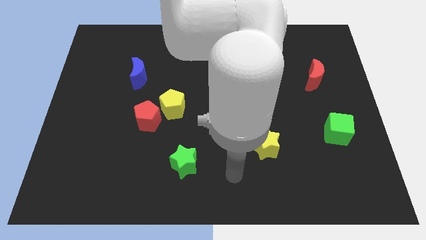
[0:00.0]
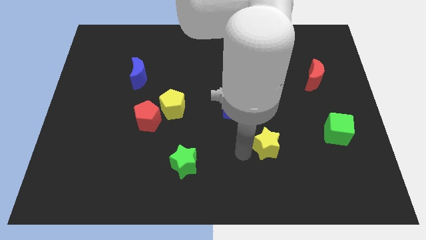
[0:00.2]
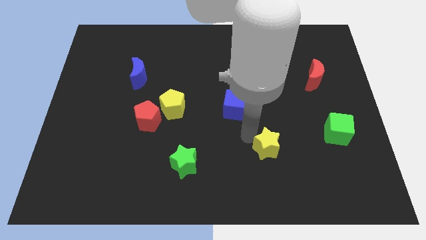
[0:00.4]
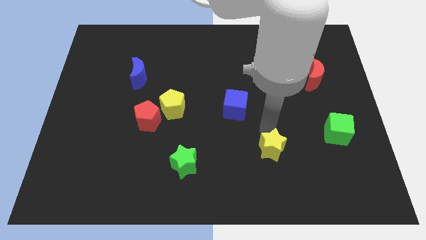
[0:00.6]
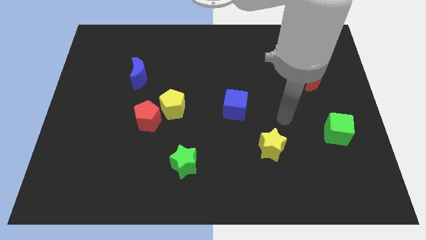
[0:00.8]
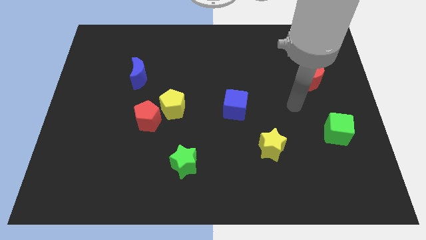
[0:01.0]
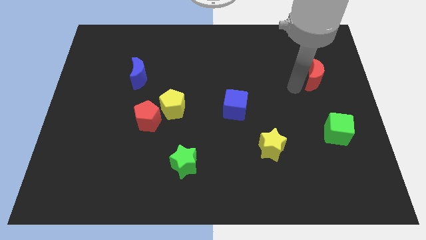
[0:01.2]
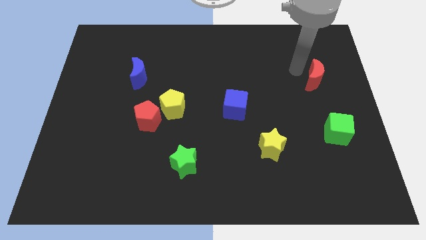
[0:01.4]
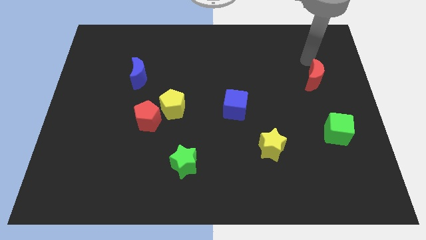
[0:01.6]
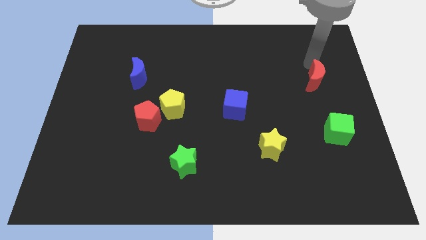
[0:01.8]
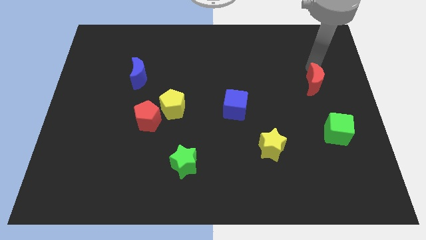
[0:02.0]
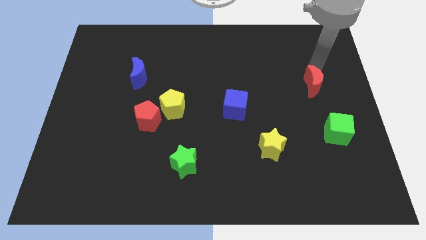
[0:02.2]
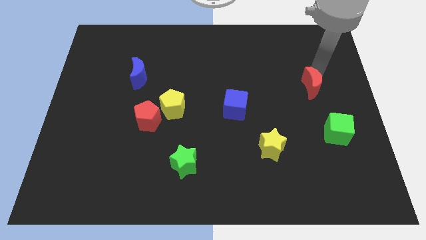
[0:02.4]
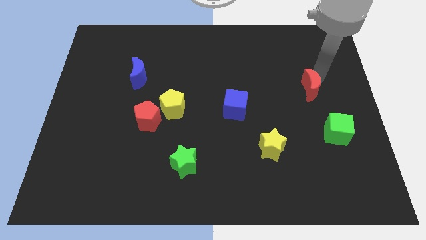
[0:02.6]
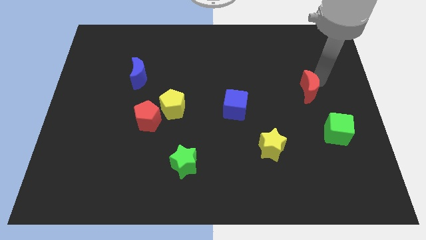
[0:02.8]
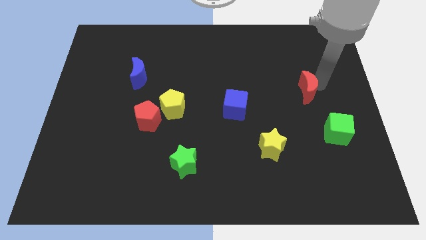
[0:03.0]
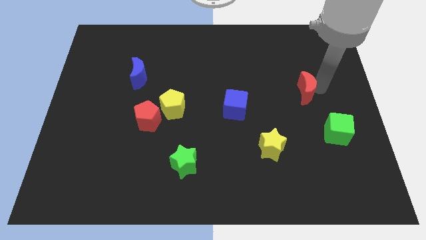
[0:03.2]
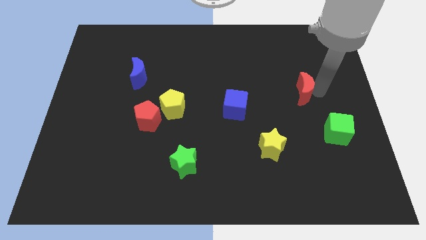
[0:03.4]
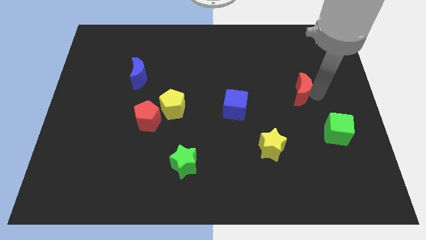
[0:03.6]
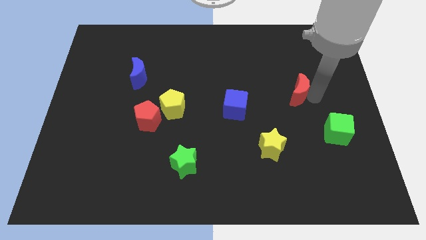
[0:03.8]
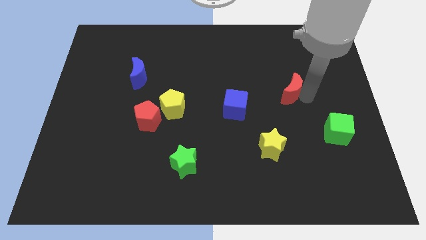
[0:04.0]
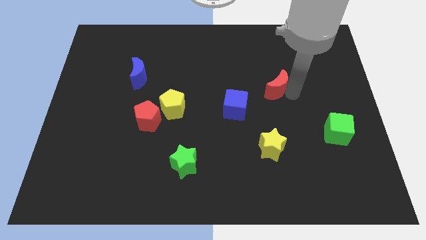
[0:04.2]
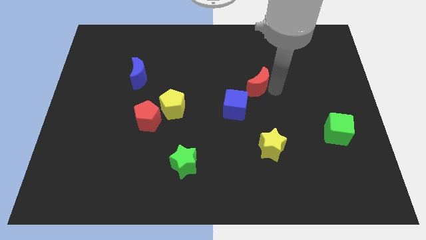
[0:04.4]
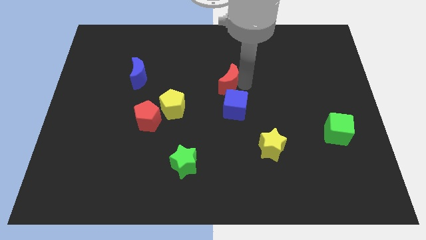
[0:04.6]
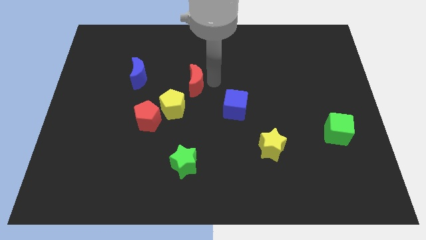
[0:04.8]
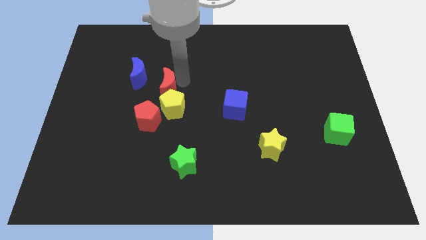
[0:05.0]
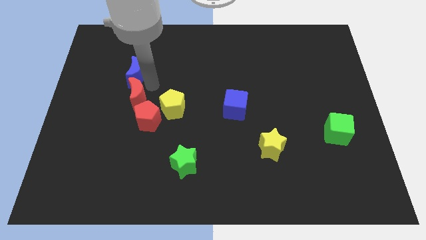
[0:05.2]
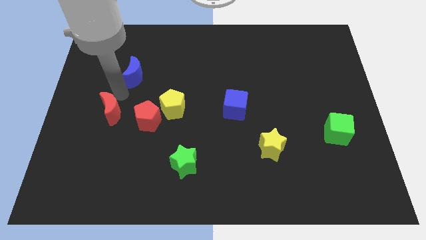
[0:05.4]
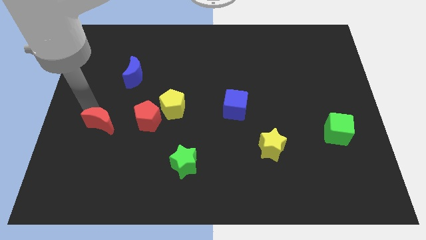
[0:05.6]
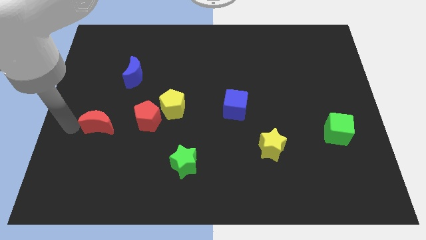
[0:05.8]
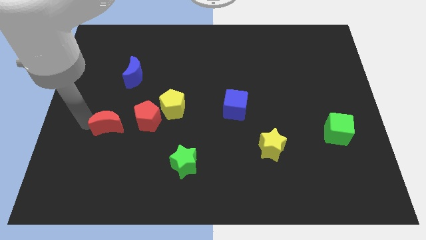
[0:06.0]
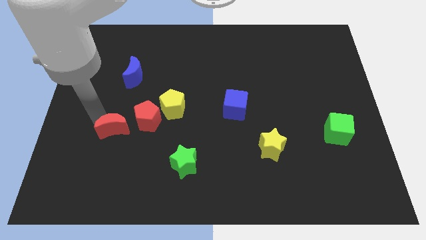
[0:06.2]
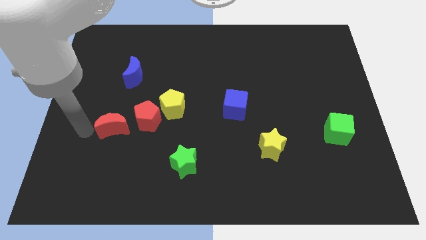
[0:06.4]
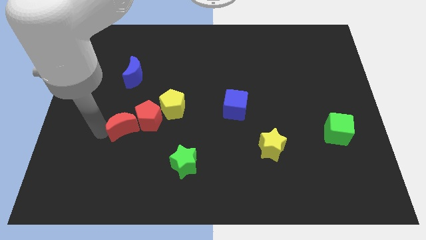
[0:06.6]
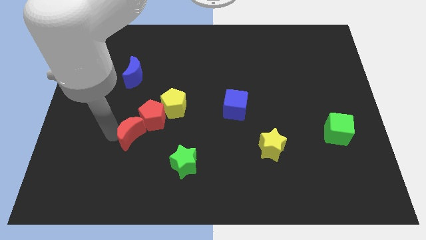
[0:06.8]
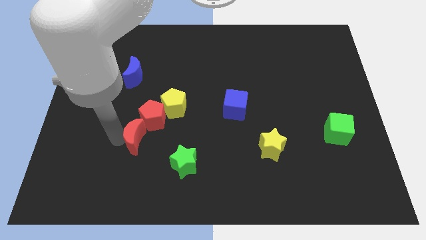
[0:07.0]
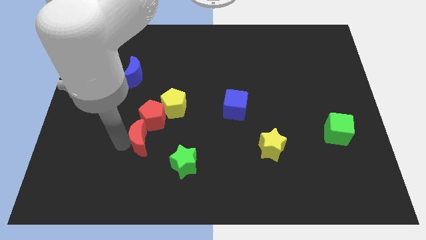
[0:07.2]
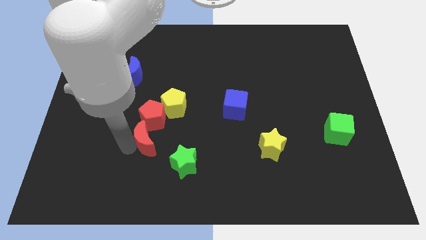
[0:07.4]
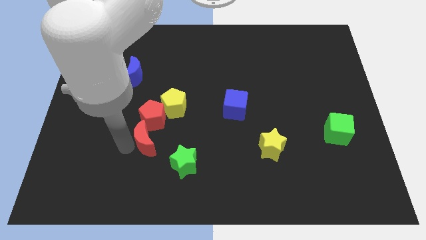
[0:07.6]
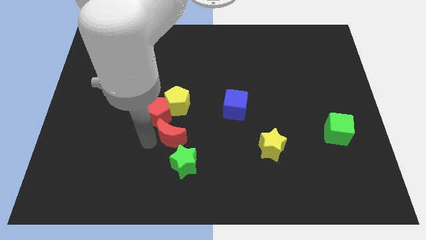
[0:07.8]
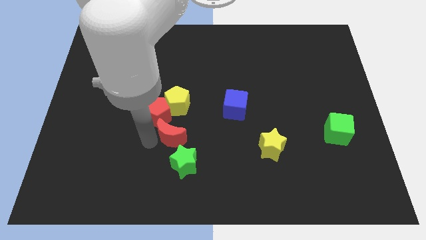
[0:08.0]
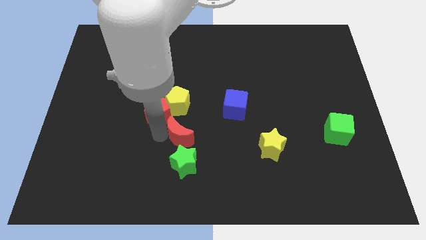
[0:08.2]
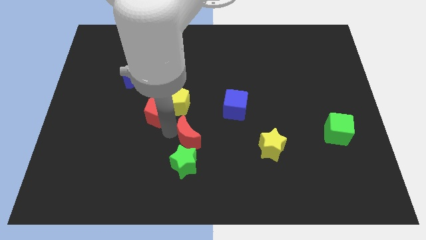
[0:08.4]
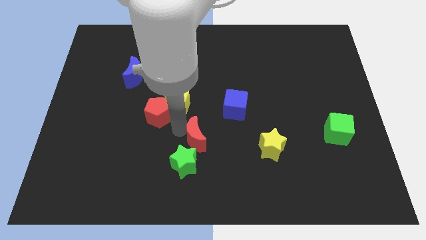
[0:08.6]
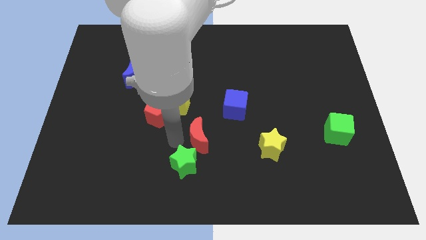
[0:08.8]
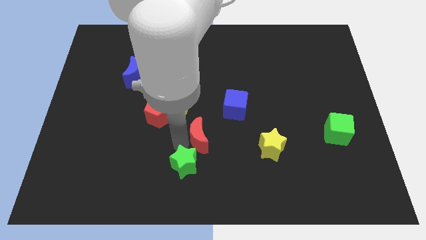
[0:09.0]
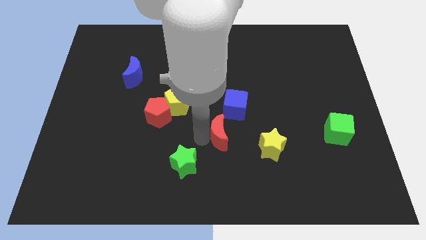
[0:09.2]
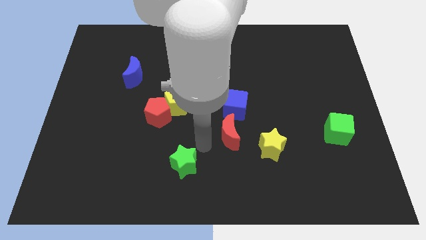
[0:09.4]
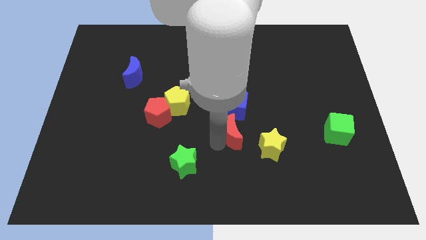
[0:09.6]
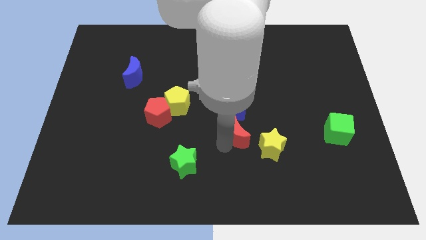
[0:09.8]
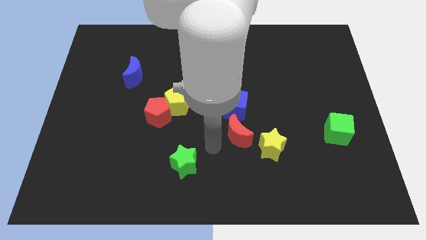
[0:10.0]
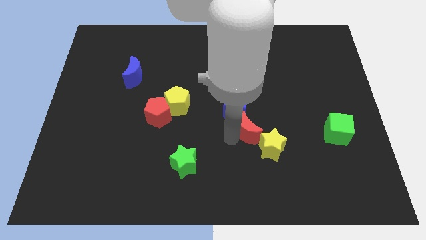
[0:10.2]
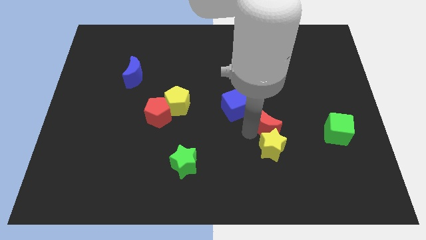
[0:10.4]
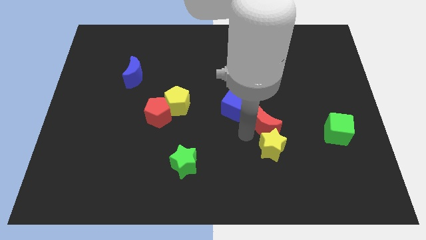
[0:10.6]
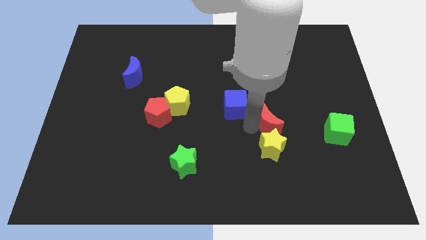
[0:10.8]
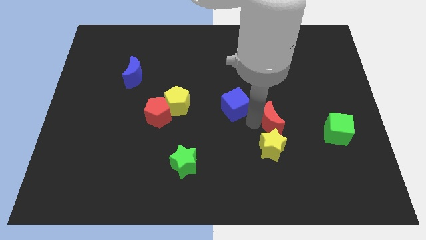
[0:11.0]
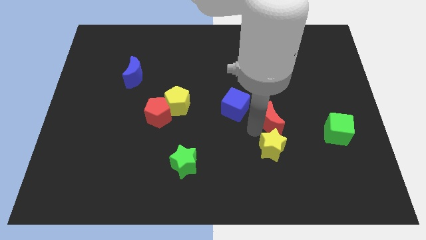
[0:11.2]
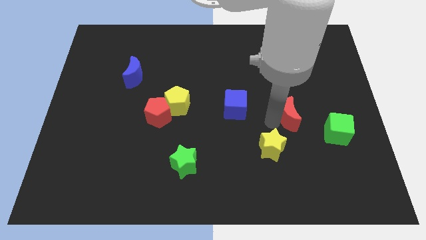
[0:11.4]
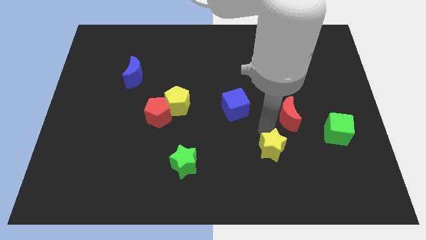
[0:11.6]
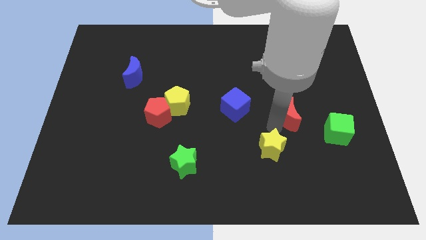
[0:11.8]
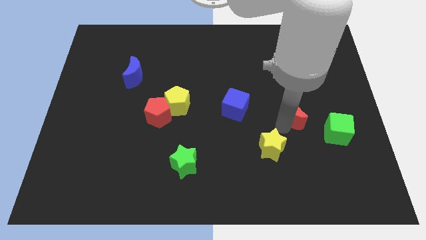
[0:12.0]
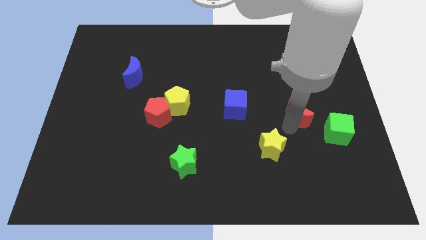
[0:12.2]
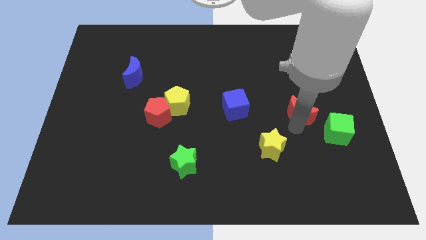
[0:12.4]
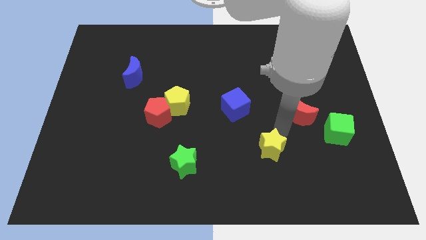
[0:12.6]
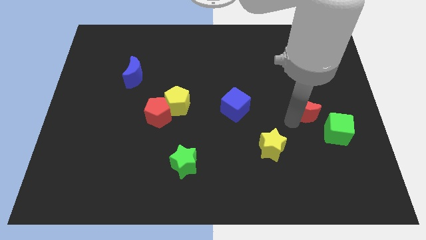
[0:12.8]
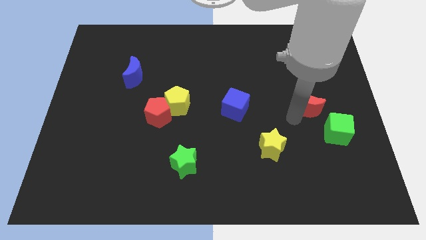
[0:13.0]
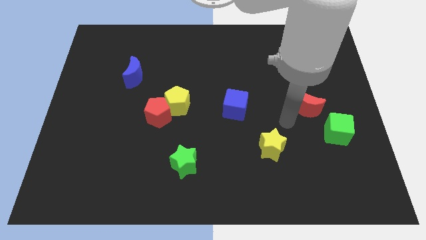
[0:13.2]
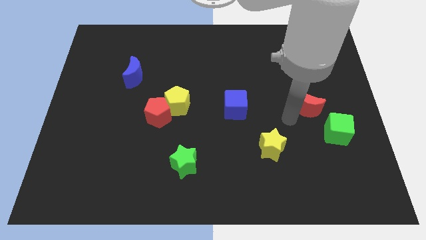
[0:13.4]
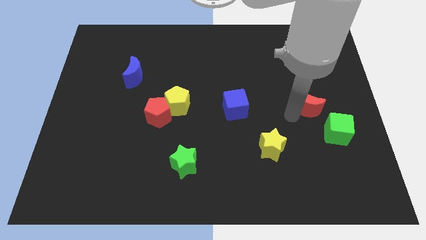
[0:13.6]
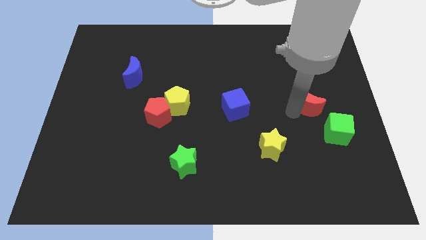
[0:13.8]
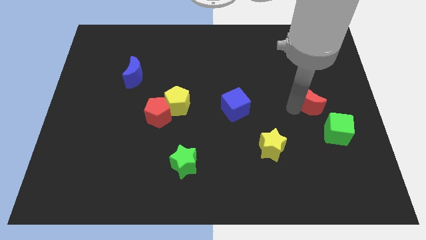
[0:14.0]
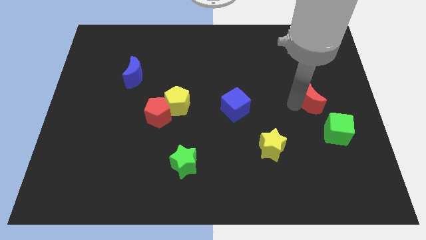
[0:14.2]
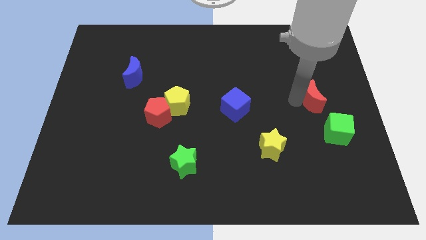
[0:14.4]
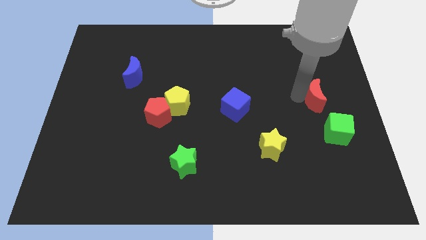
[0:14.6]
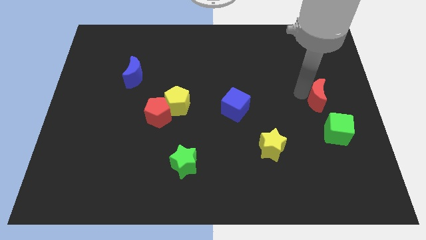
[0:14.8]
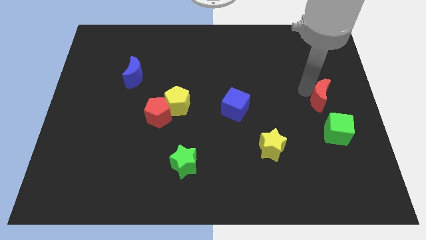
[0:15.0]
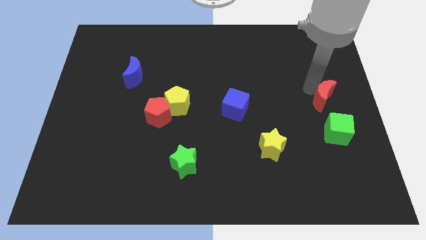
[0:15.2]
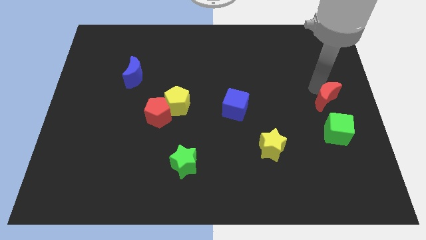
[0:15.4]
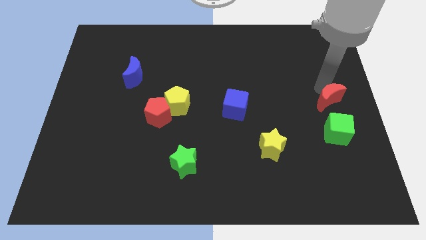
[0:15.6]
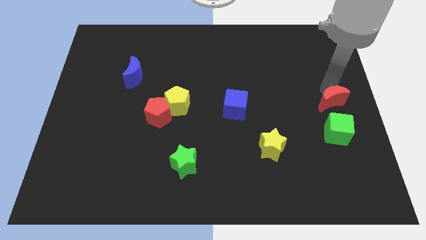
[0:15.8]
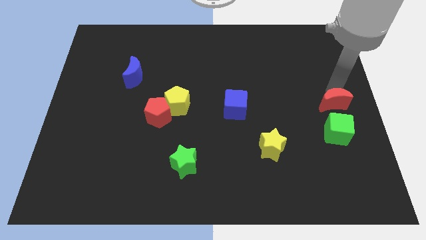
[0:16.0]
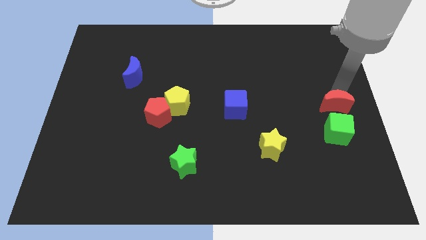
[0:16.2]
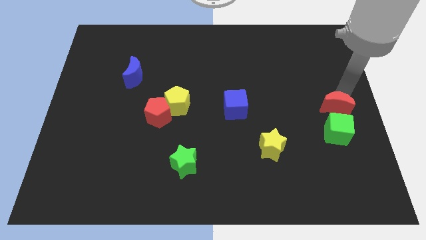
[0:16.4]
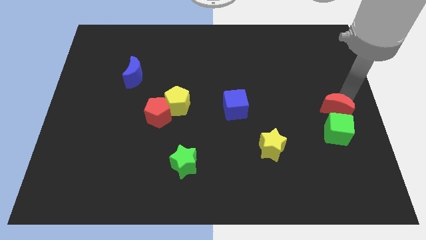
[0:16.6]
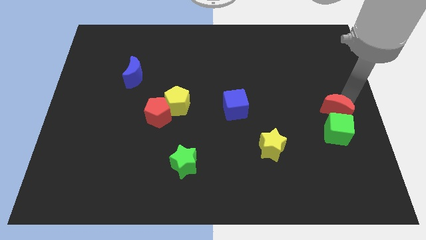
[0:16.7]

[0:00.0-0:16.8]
put the red moon to the green cube
